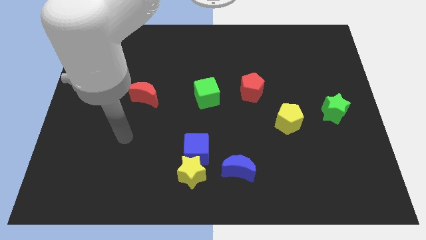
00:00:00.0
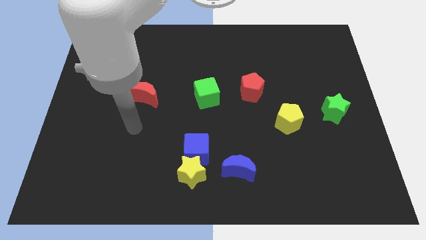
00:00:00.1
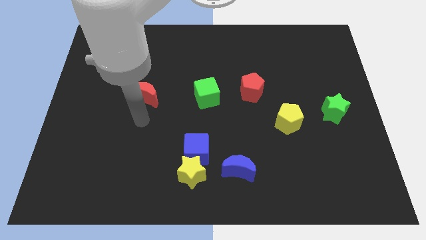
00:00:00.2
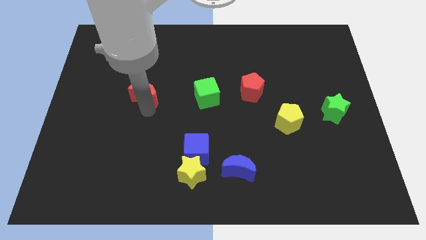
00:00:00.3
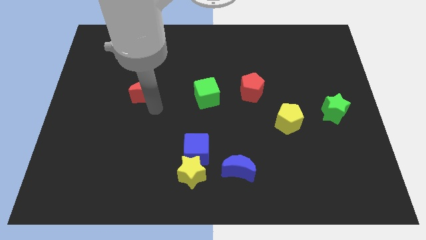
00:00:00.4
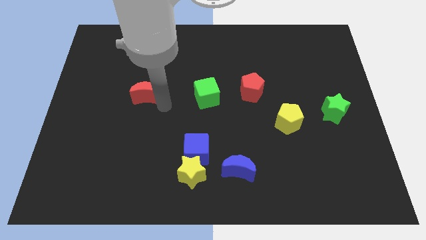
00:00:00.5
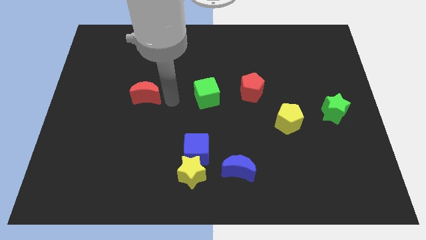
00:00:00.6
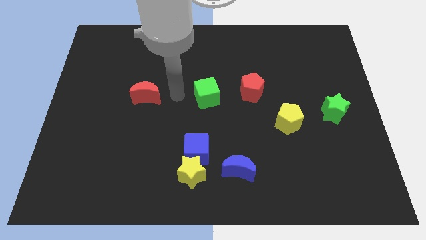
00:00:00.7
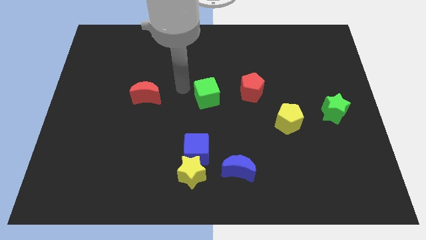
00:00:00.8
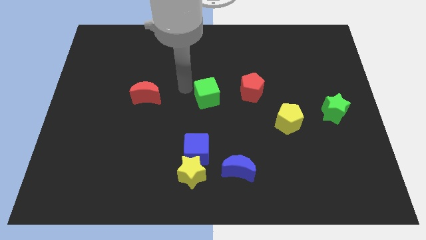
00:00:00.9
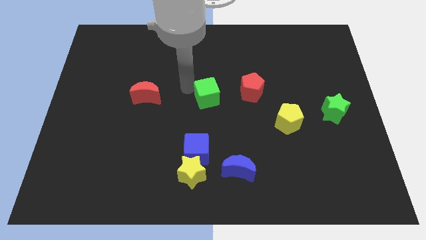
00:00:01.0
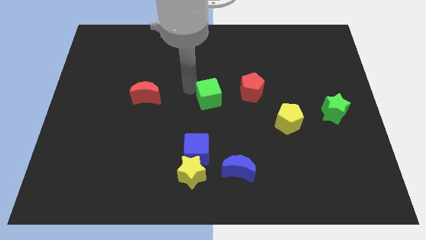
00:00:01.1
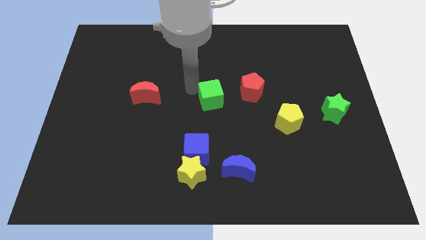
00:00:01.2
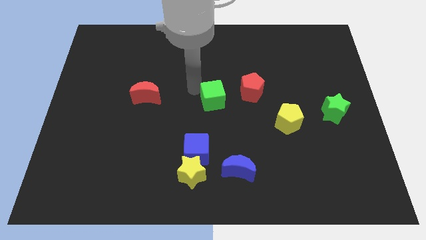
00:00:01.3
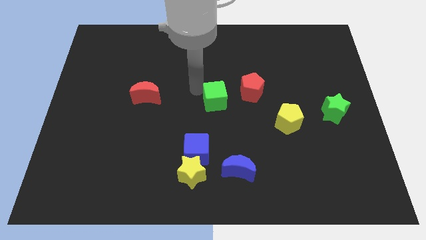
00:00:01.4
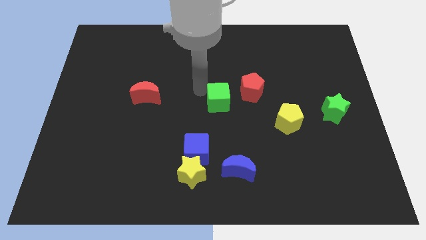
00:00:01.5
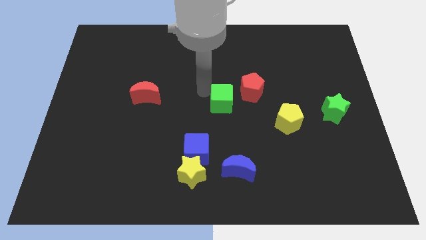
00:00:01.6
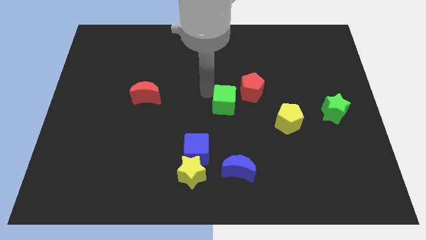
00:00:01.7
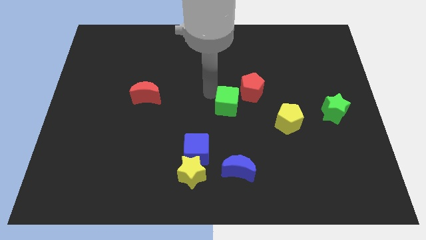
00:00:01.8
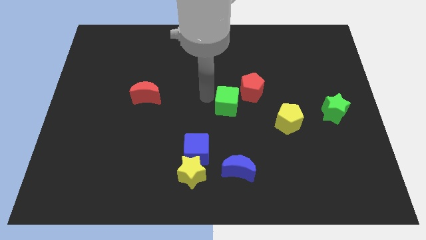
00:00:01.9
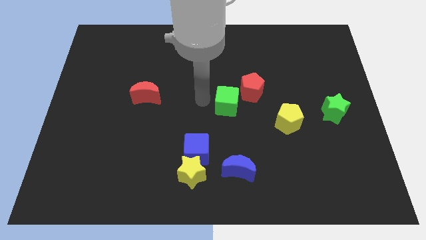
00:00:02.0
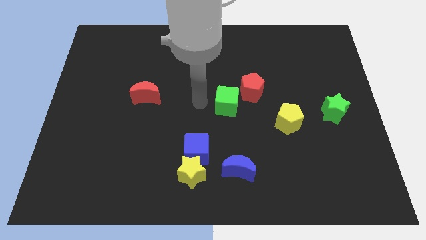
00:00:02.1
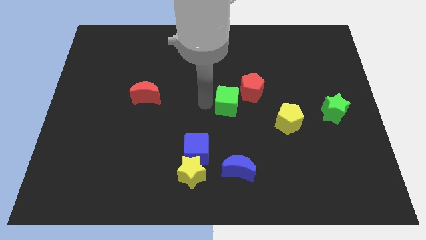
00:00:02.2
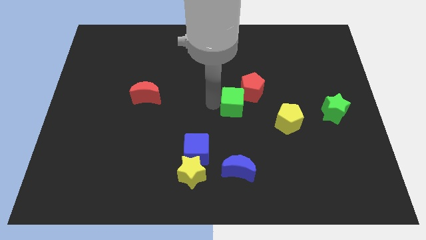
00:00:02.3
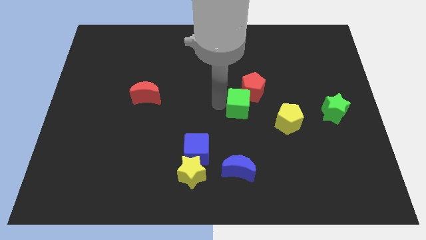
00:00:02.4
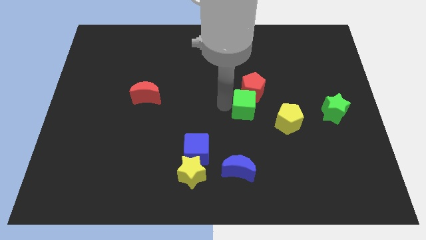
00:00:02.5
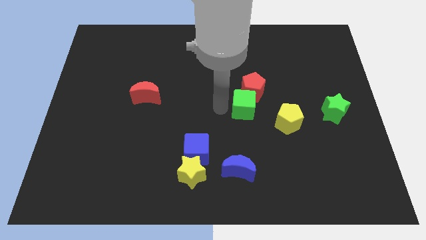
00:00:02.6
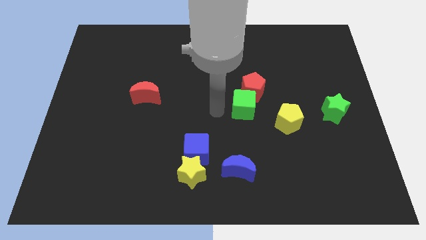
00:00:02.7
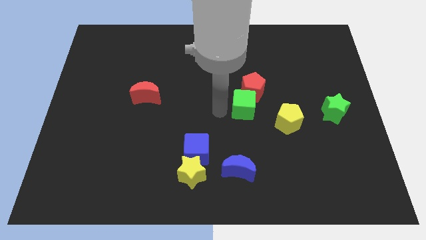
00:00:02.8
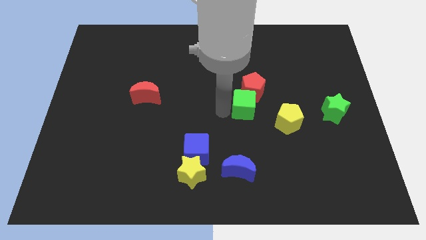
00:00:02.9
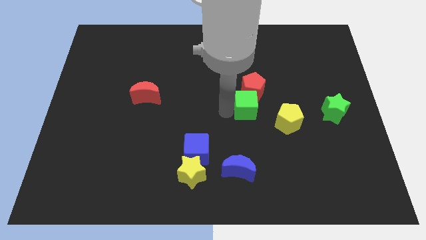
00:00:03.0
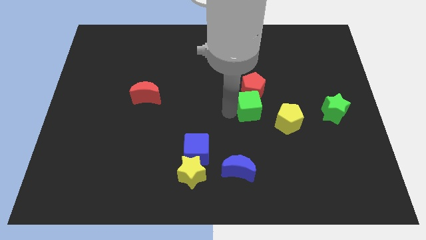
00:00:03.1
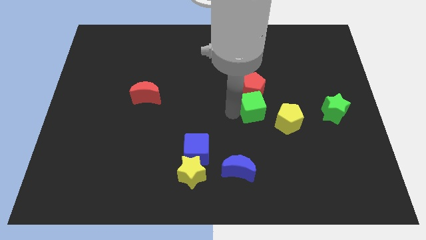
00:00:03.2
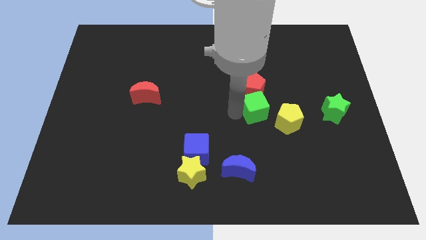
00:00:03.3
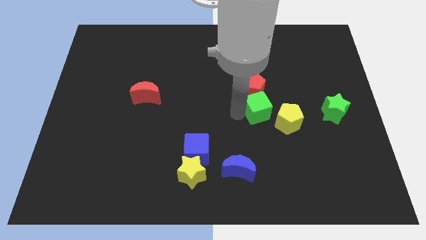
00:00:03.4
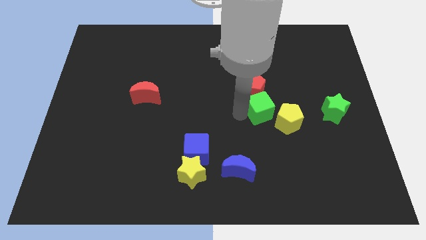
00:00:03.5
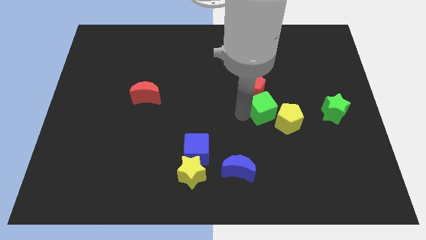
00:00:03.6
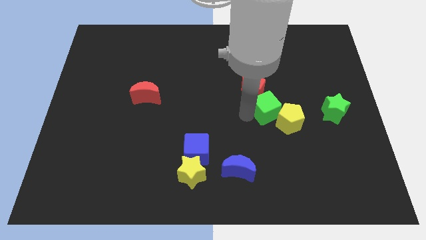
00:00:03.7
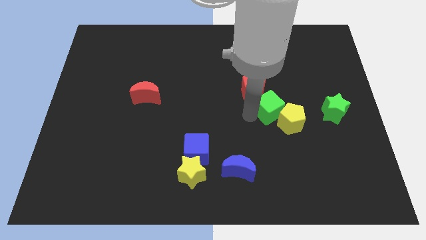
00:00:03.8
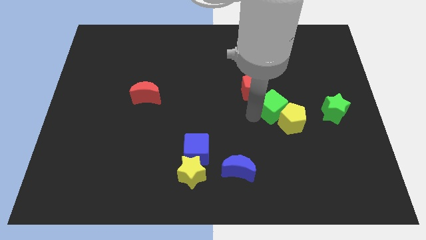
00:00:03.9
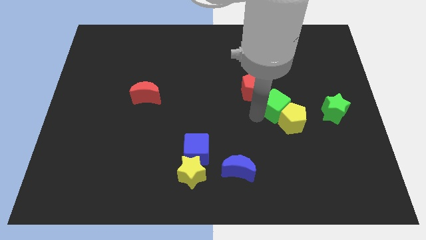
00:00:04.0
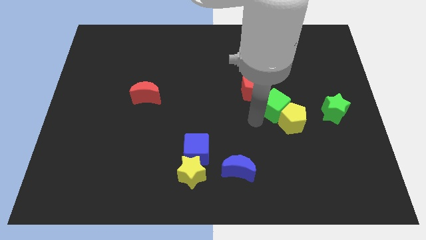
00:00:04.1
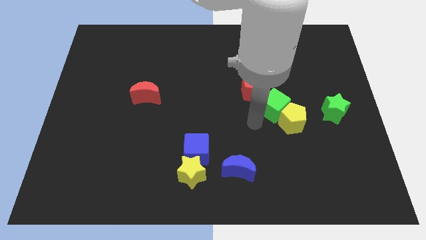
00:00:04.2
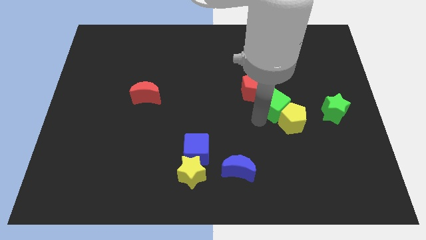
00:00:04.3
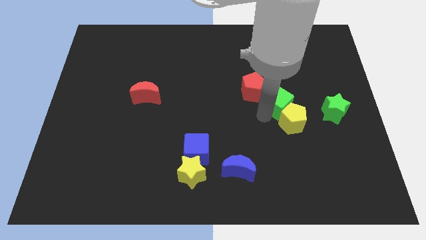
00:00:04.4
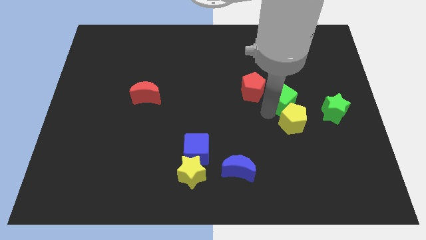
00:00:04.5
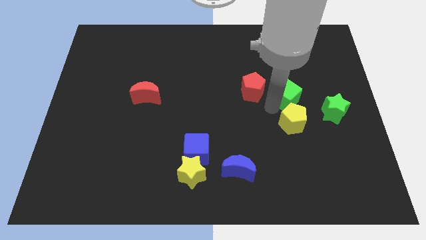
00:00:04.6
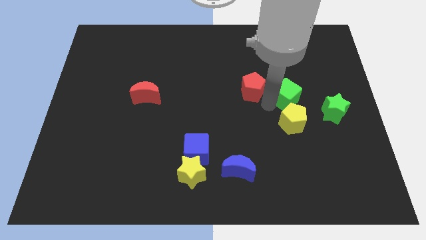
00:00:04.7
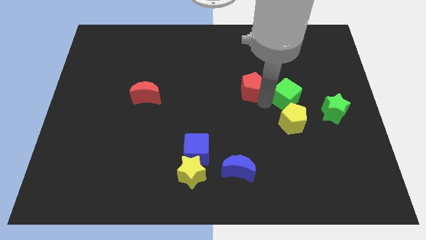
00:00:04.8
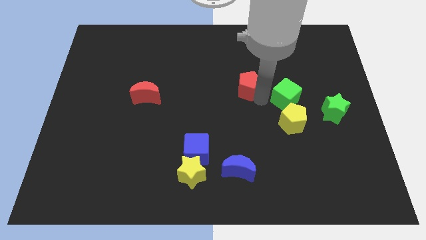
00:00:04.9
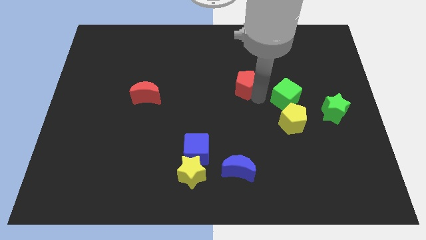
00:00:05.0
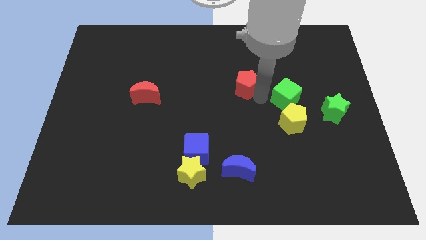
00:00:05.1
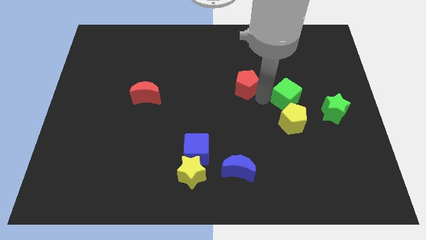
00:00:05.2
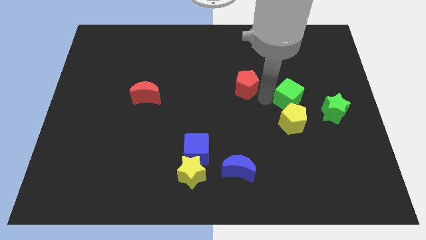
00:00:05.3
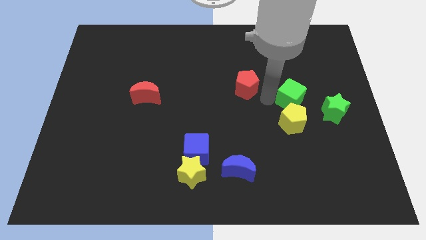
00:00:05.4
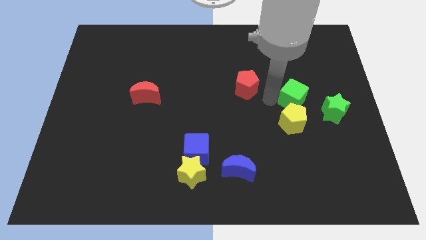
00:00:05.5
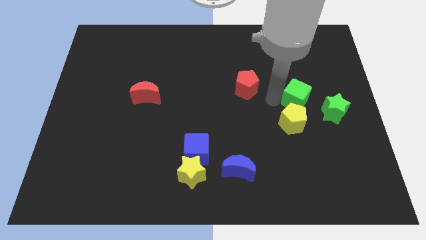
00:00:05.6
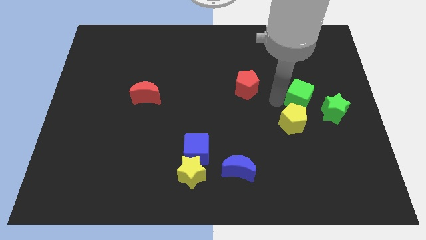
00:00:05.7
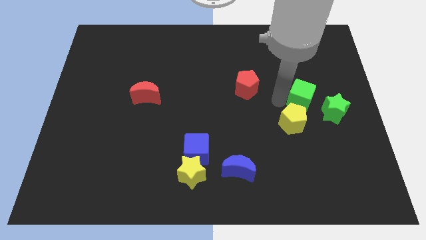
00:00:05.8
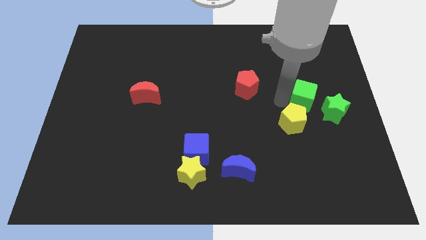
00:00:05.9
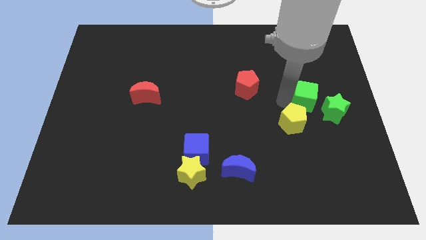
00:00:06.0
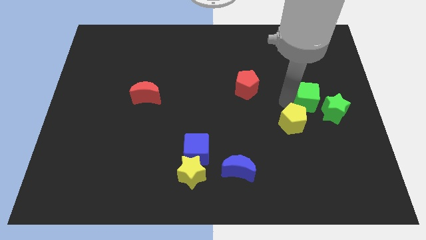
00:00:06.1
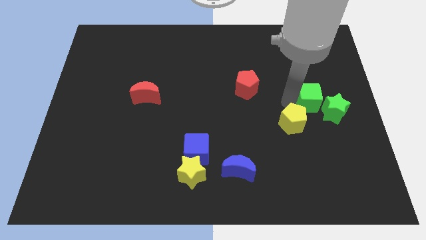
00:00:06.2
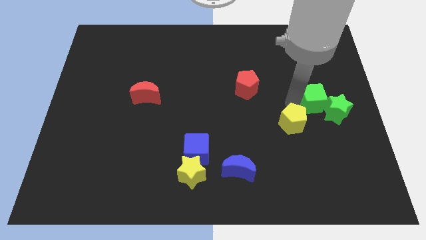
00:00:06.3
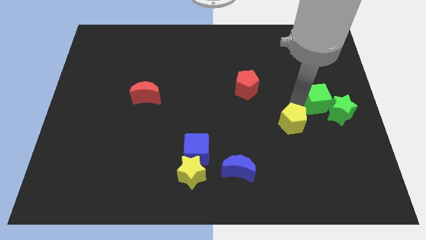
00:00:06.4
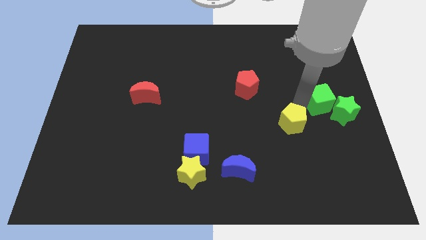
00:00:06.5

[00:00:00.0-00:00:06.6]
put the green cube to the right side

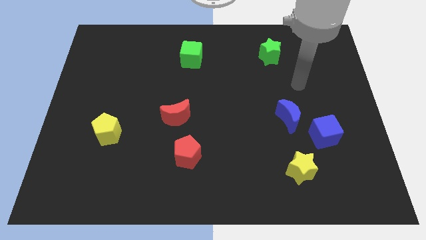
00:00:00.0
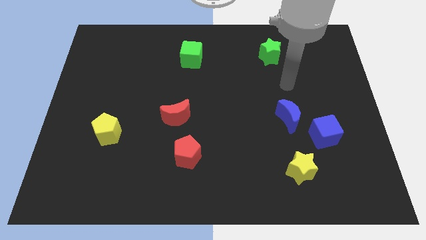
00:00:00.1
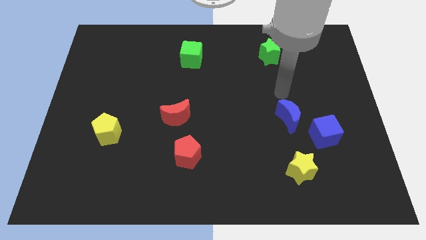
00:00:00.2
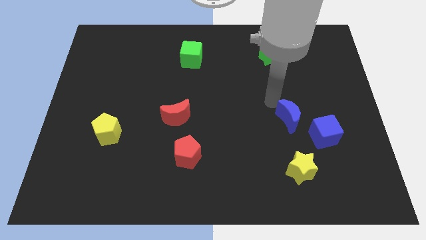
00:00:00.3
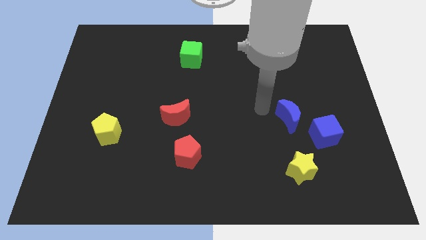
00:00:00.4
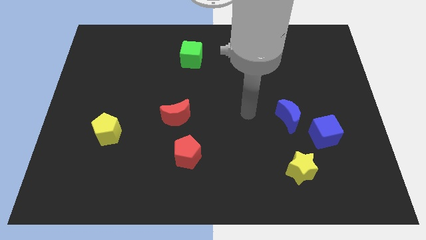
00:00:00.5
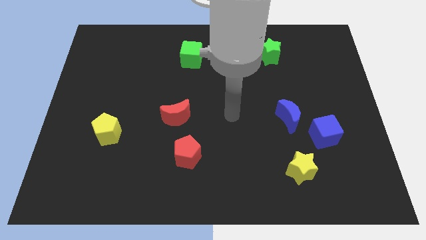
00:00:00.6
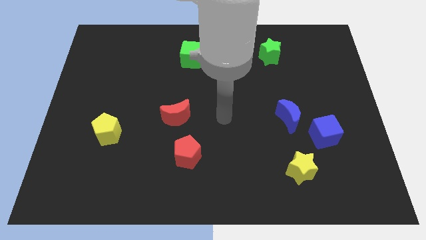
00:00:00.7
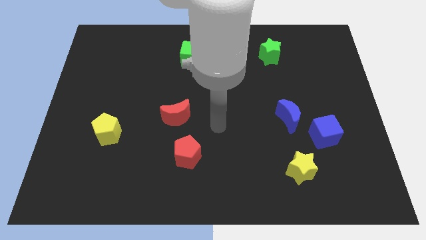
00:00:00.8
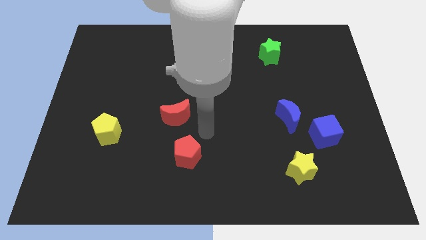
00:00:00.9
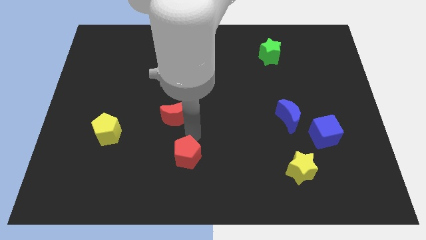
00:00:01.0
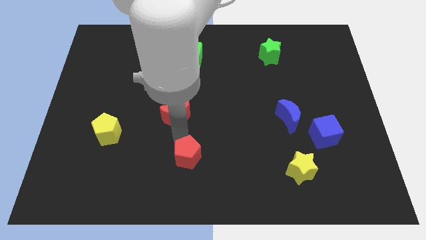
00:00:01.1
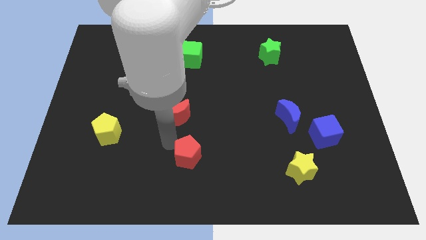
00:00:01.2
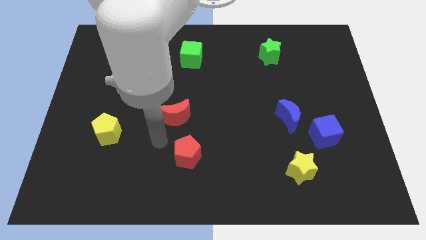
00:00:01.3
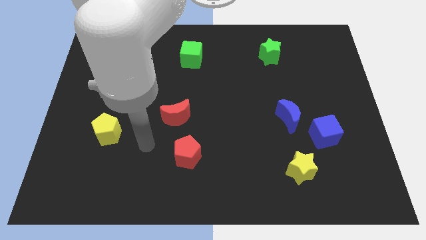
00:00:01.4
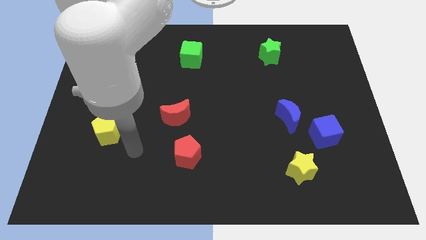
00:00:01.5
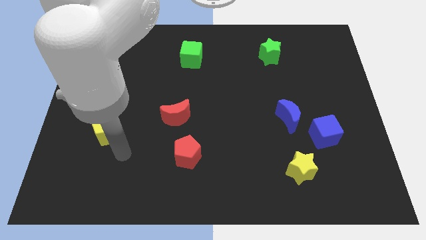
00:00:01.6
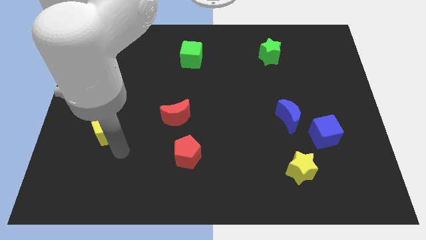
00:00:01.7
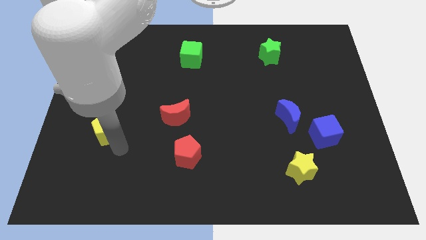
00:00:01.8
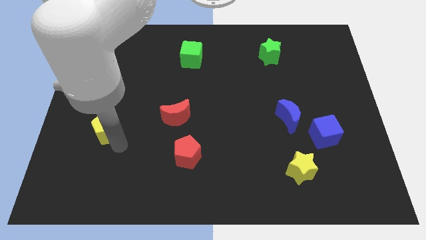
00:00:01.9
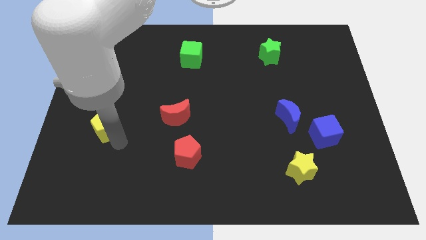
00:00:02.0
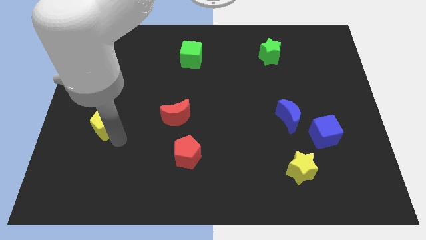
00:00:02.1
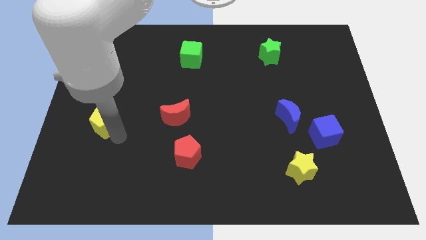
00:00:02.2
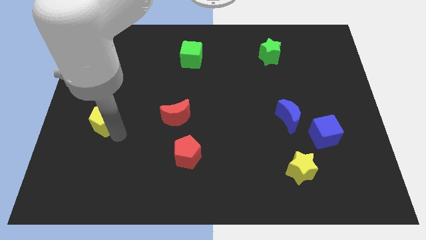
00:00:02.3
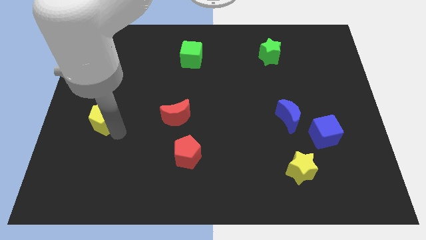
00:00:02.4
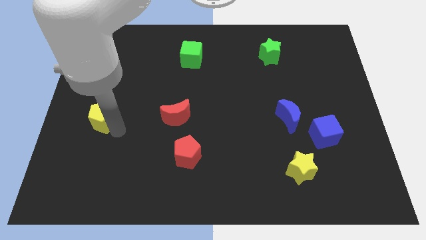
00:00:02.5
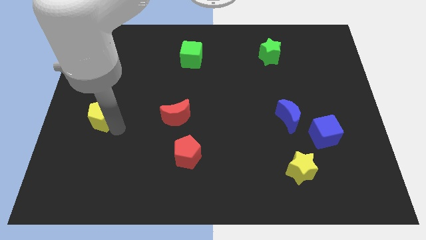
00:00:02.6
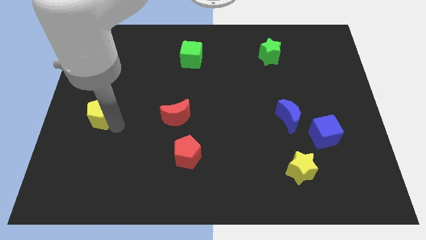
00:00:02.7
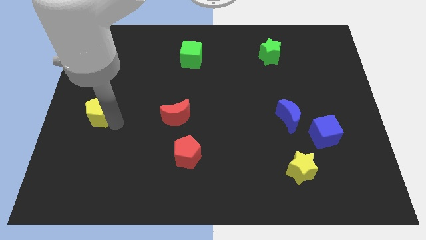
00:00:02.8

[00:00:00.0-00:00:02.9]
put the yellow pentagon to the center left
